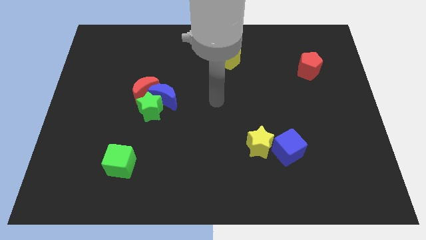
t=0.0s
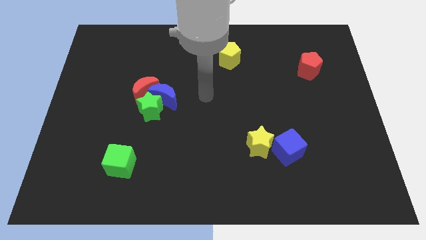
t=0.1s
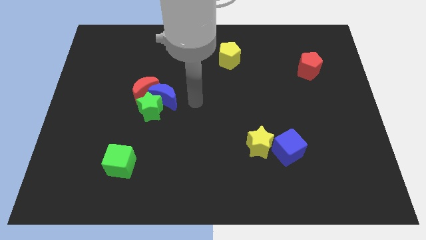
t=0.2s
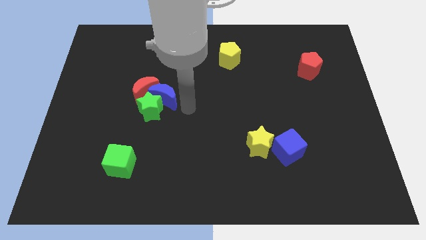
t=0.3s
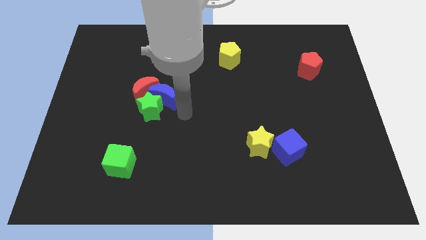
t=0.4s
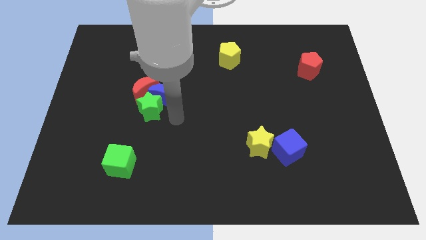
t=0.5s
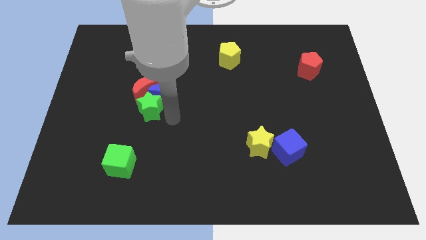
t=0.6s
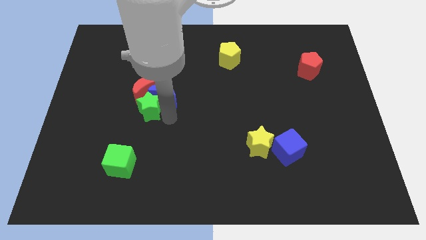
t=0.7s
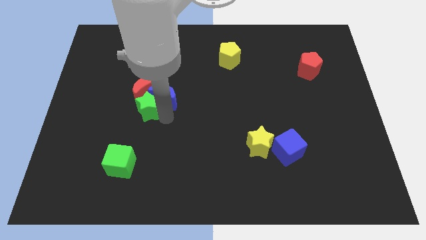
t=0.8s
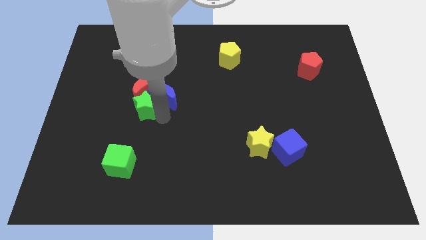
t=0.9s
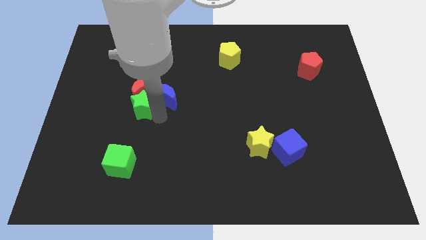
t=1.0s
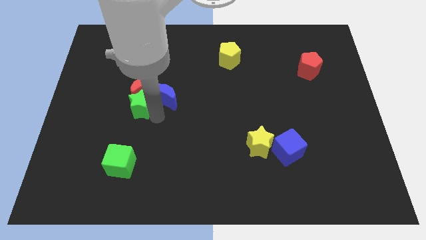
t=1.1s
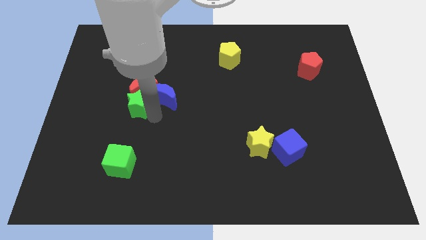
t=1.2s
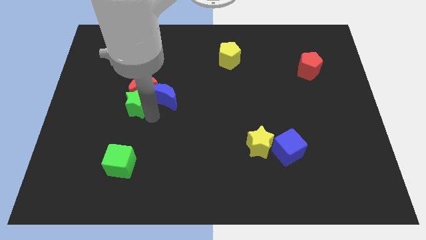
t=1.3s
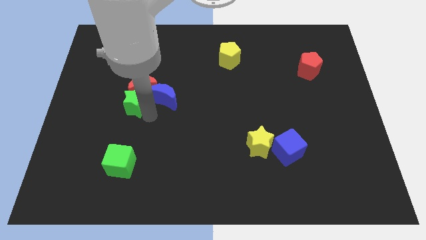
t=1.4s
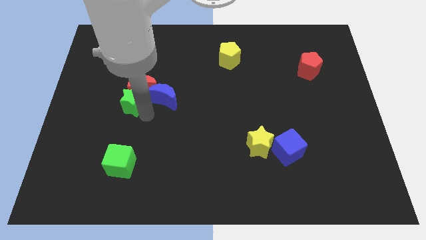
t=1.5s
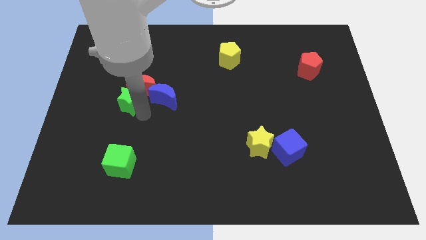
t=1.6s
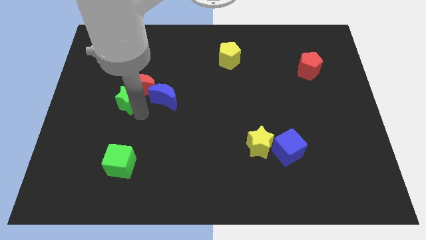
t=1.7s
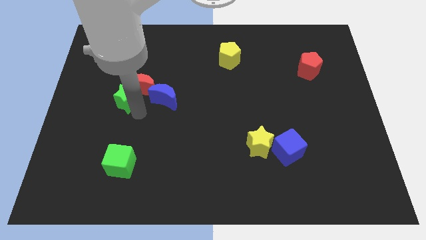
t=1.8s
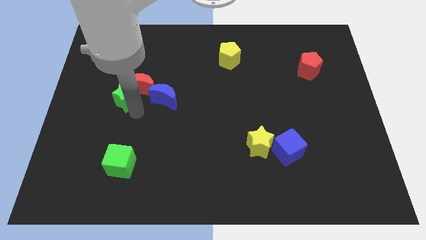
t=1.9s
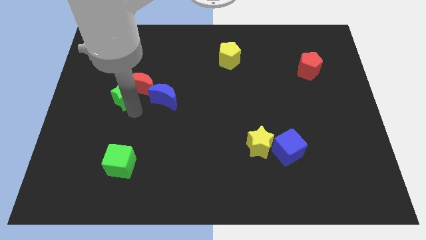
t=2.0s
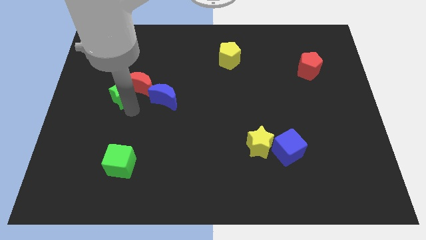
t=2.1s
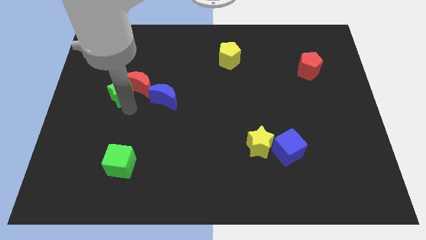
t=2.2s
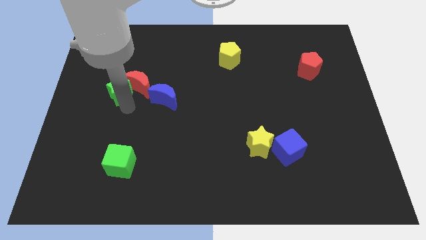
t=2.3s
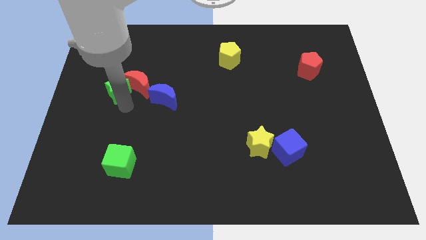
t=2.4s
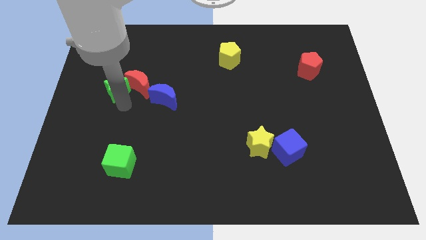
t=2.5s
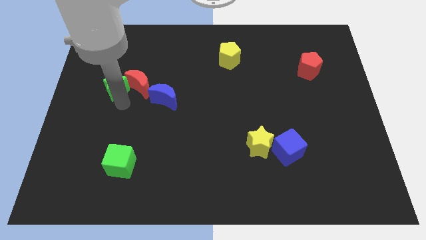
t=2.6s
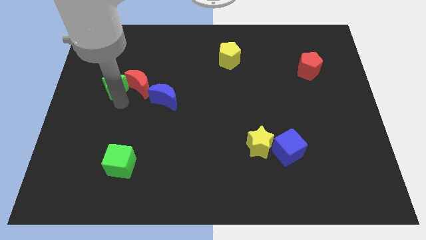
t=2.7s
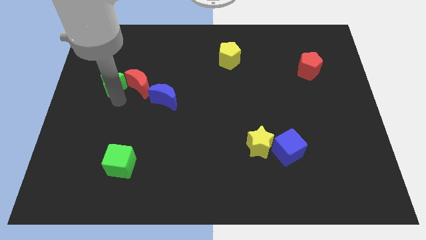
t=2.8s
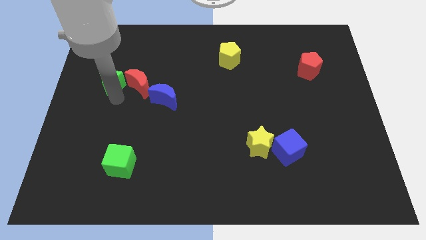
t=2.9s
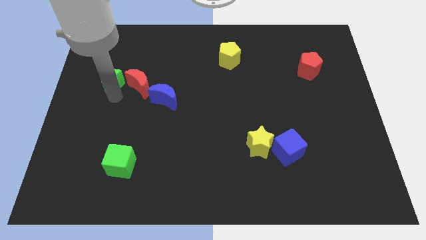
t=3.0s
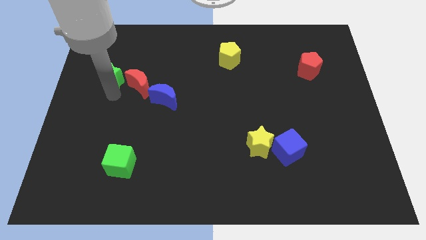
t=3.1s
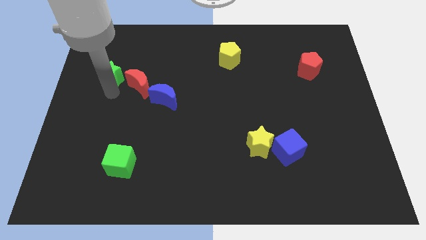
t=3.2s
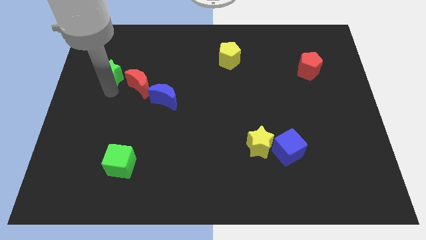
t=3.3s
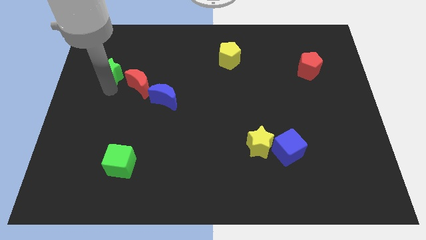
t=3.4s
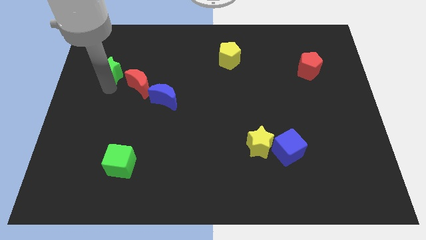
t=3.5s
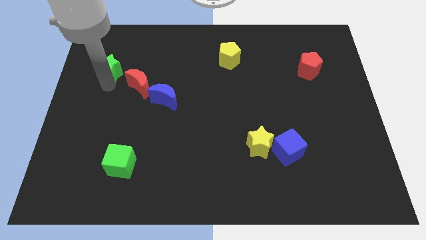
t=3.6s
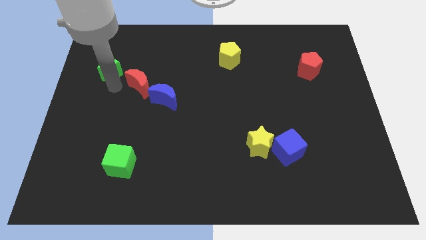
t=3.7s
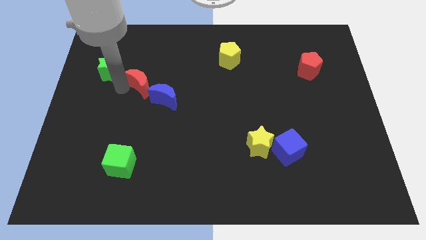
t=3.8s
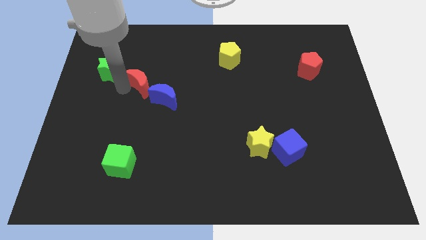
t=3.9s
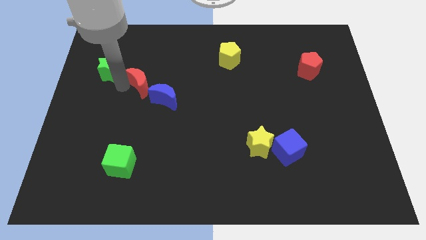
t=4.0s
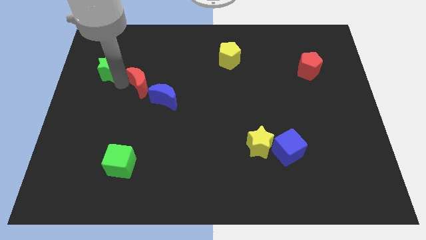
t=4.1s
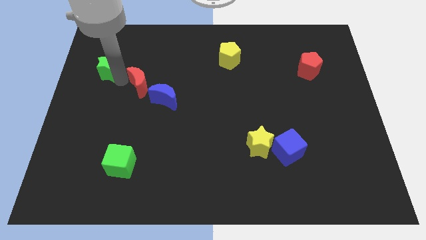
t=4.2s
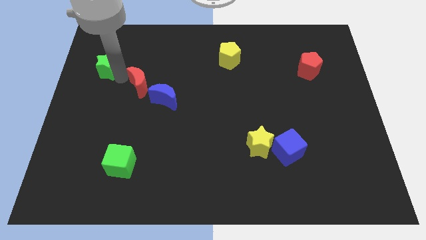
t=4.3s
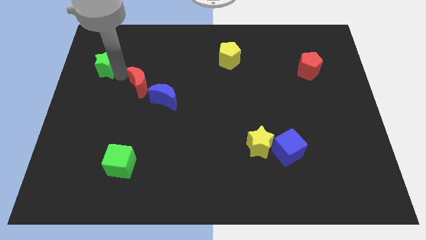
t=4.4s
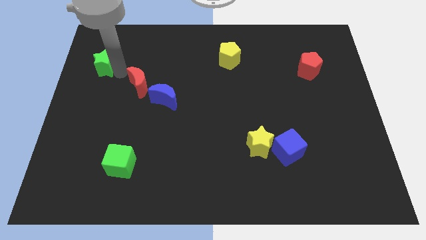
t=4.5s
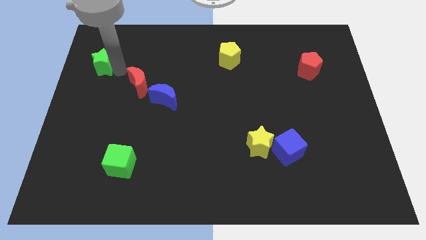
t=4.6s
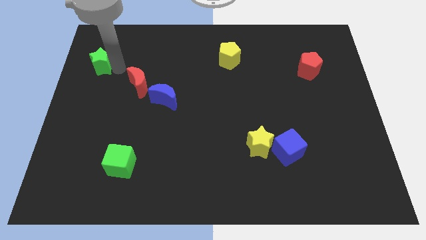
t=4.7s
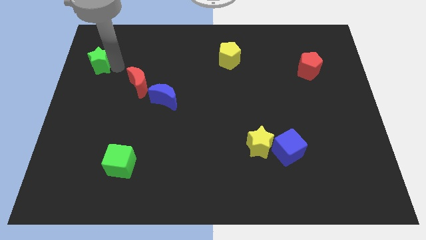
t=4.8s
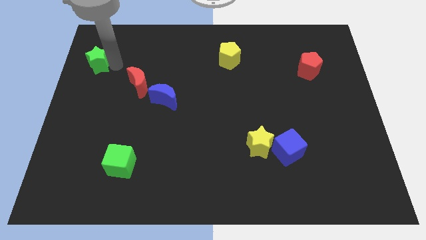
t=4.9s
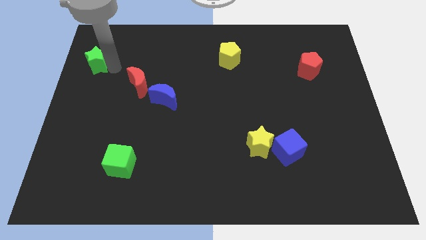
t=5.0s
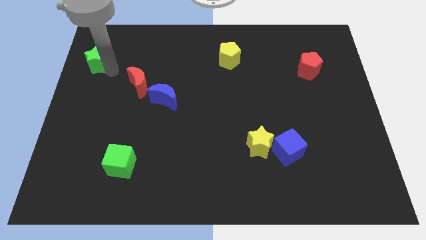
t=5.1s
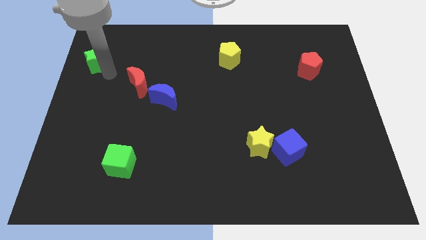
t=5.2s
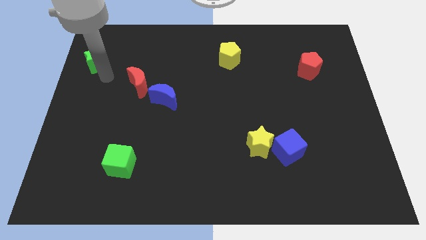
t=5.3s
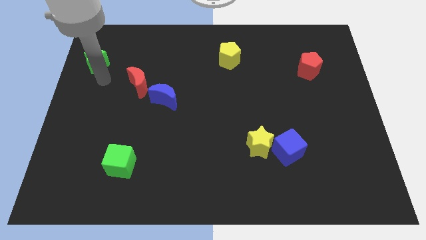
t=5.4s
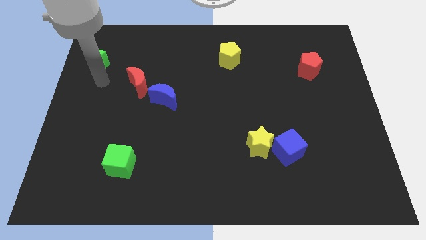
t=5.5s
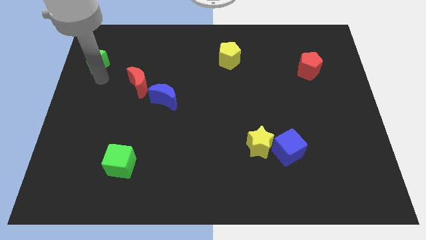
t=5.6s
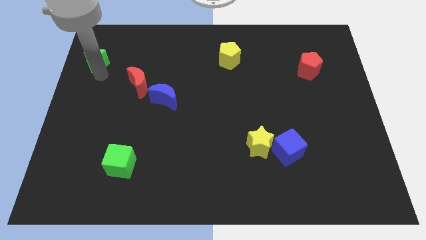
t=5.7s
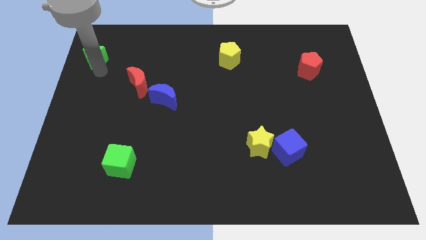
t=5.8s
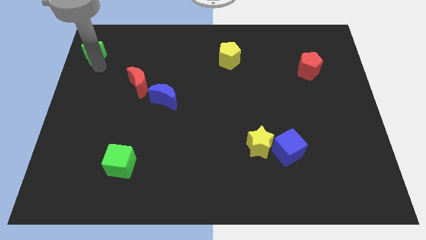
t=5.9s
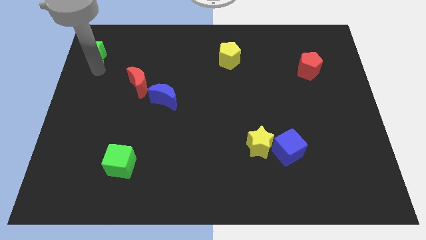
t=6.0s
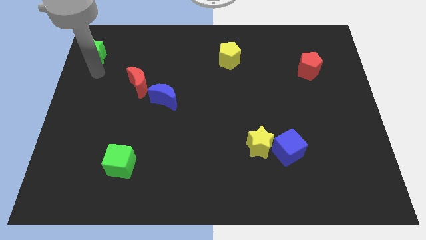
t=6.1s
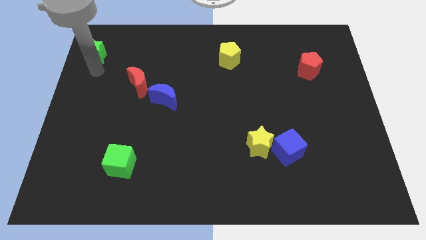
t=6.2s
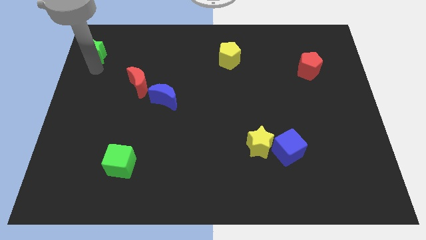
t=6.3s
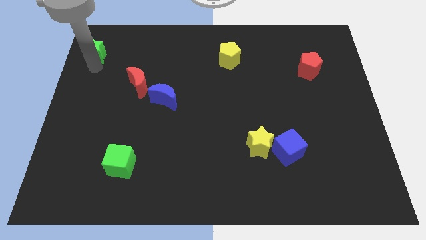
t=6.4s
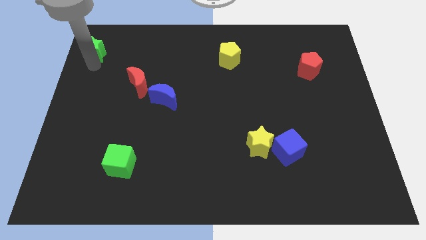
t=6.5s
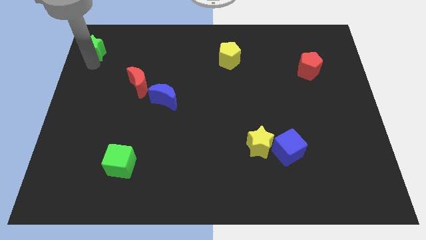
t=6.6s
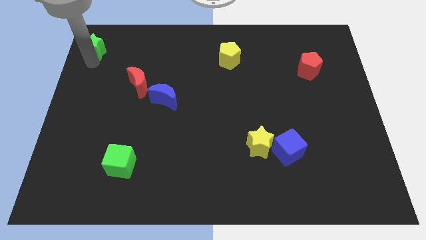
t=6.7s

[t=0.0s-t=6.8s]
slide the green star to the top left corner
